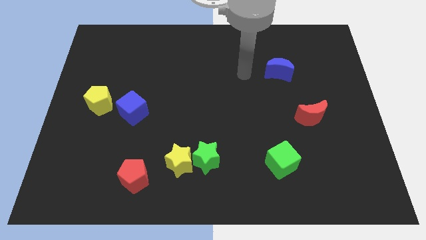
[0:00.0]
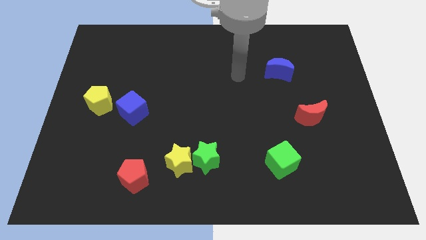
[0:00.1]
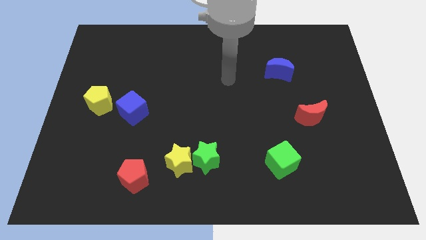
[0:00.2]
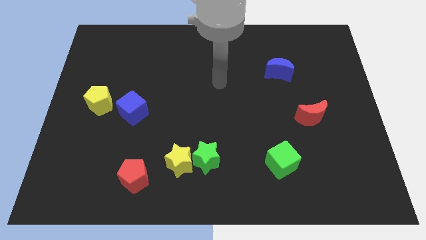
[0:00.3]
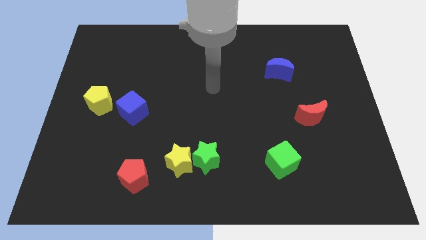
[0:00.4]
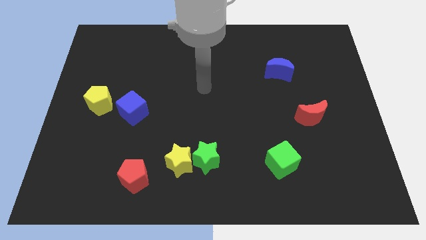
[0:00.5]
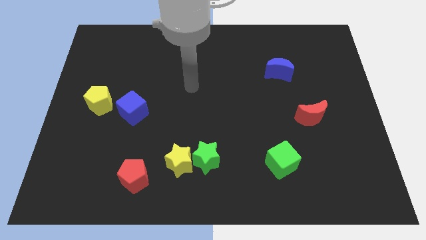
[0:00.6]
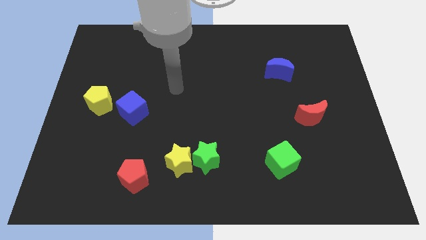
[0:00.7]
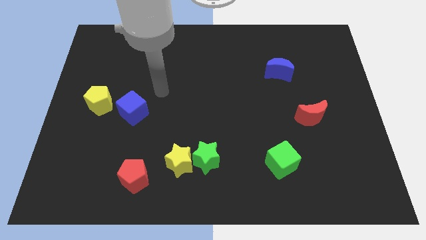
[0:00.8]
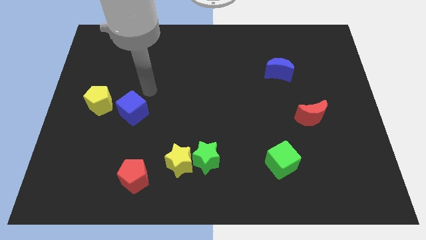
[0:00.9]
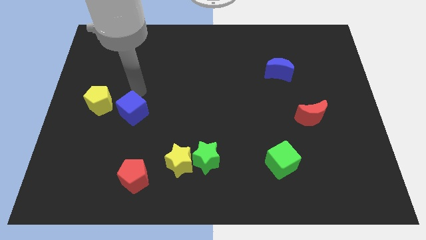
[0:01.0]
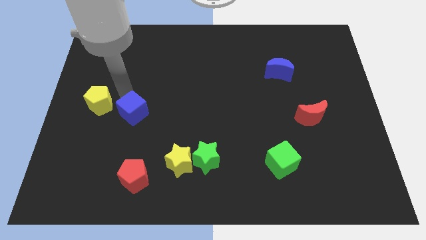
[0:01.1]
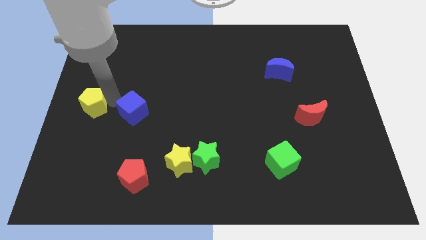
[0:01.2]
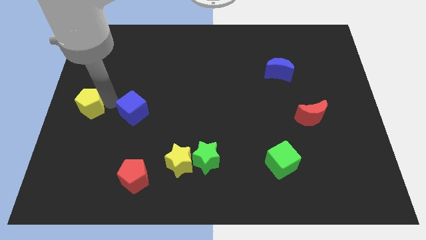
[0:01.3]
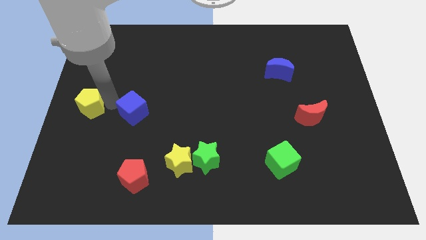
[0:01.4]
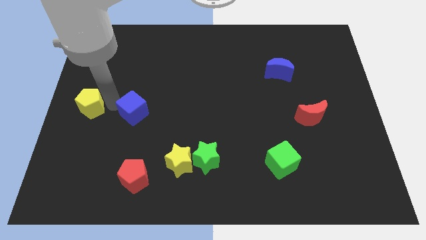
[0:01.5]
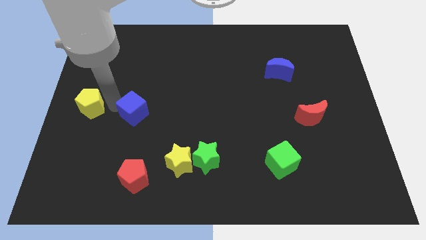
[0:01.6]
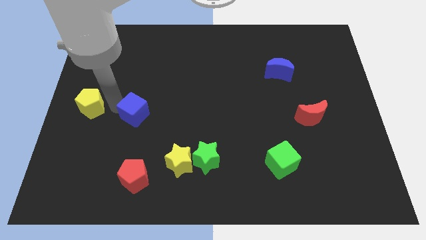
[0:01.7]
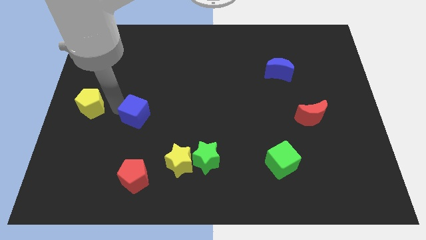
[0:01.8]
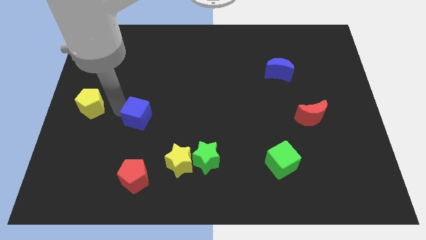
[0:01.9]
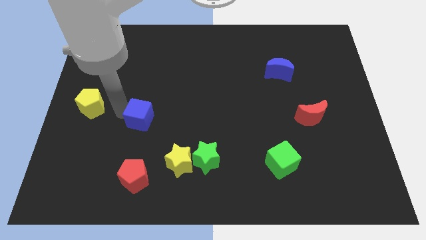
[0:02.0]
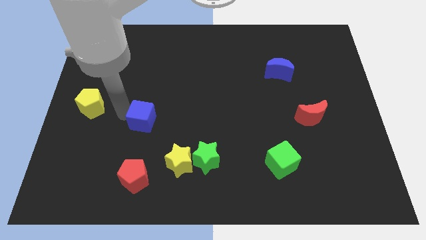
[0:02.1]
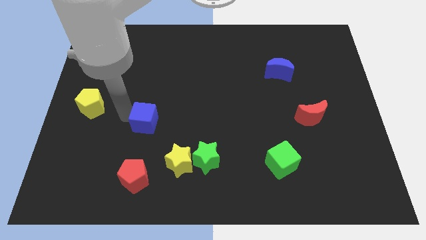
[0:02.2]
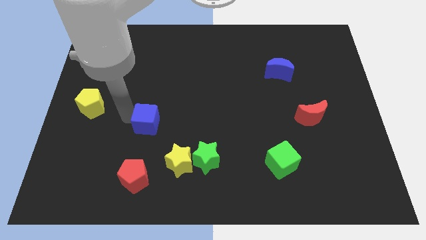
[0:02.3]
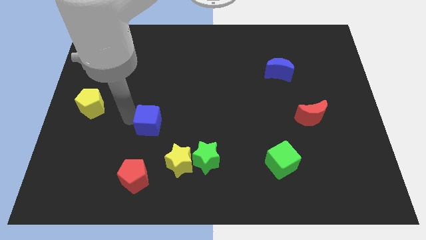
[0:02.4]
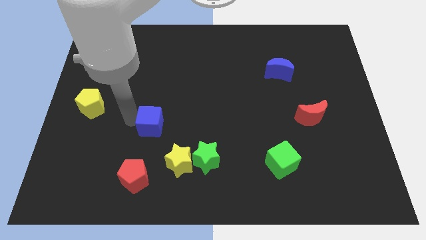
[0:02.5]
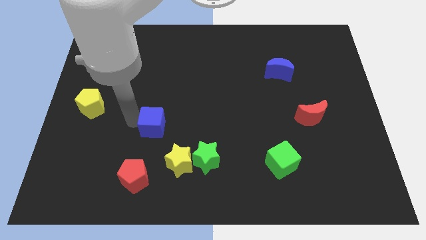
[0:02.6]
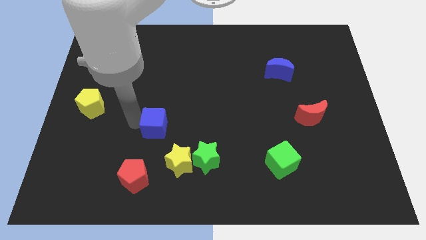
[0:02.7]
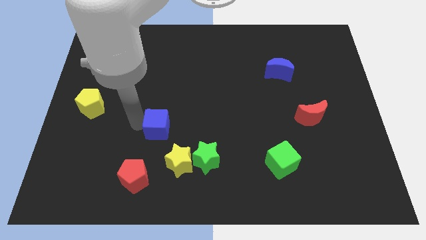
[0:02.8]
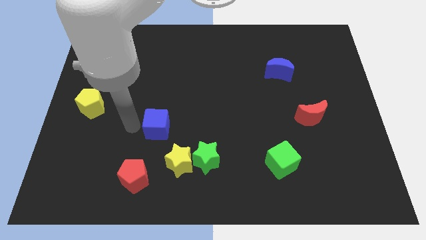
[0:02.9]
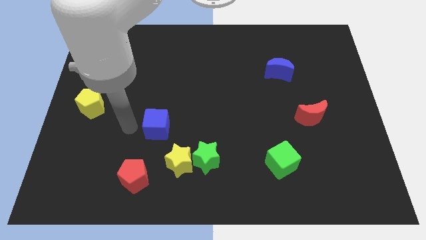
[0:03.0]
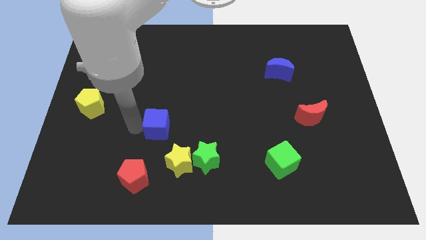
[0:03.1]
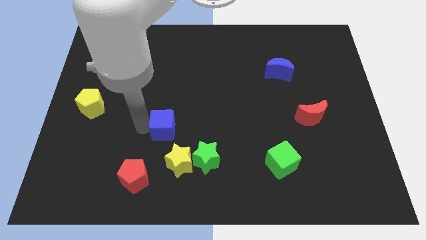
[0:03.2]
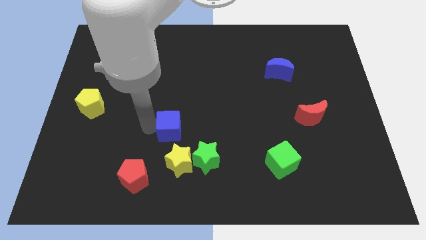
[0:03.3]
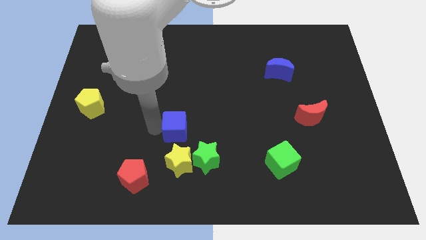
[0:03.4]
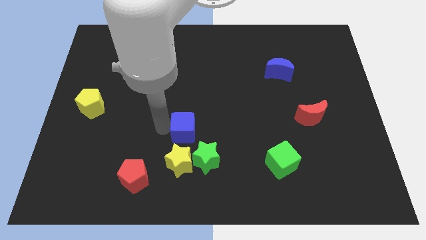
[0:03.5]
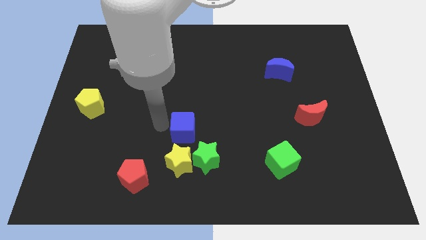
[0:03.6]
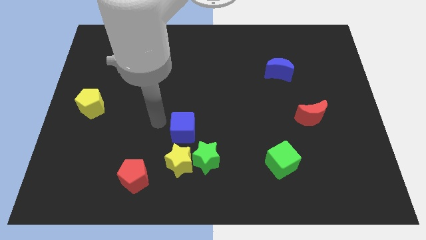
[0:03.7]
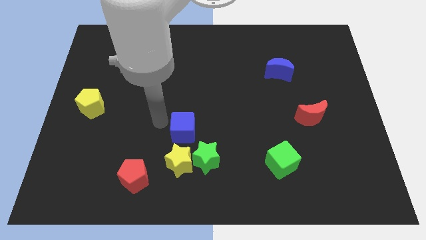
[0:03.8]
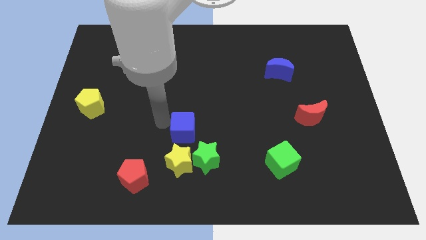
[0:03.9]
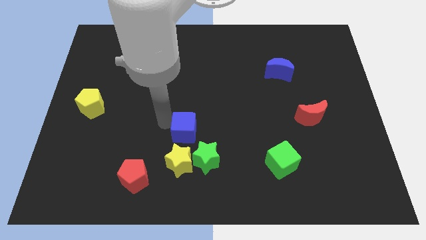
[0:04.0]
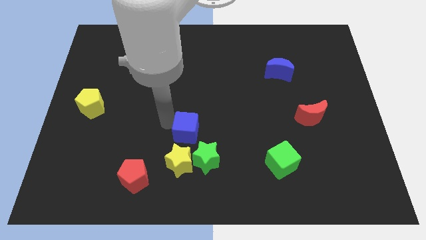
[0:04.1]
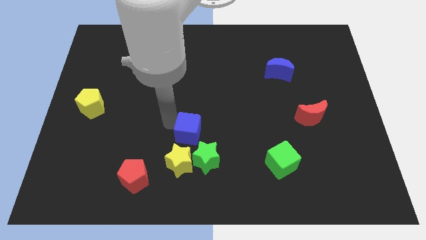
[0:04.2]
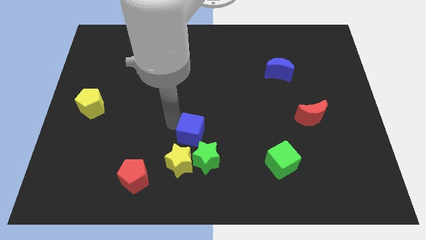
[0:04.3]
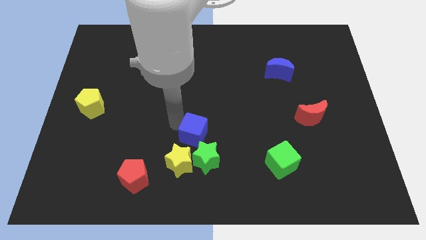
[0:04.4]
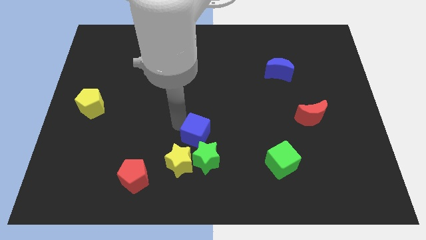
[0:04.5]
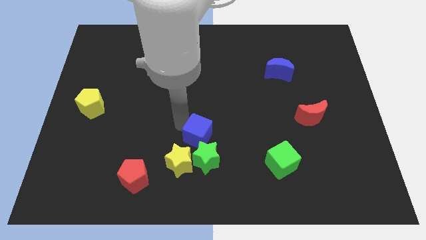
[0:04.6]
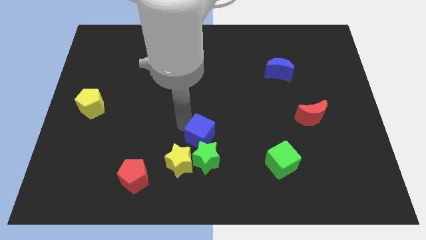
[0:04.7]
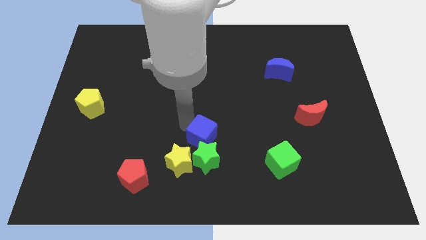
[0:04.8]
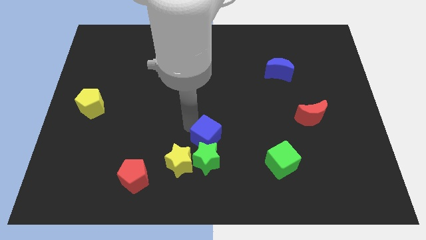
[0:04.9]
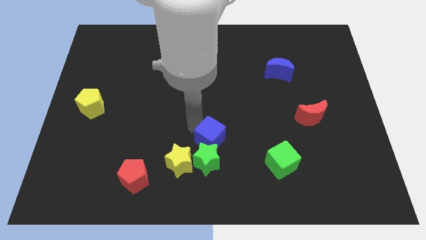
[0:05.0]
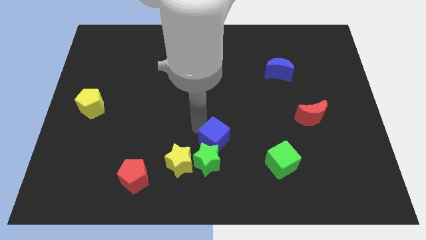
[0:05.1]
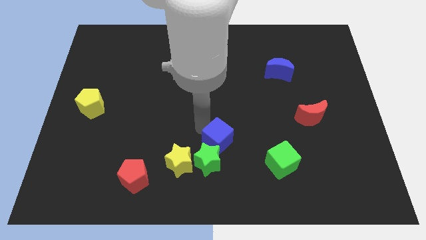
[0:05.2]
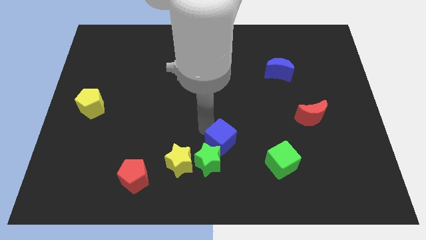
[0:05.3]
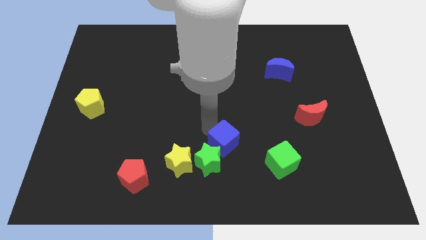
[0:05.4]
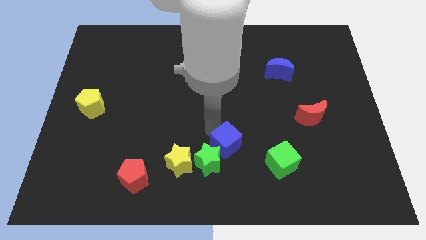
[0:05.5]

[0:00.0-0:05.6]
slide the blue cube to the left of the green cube

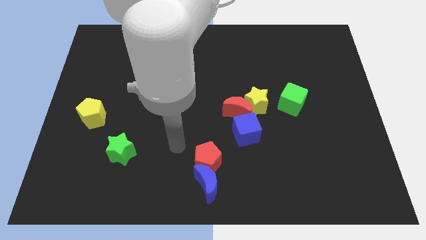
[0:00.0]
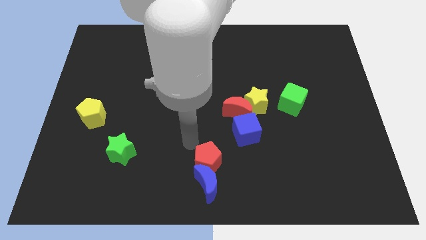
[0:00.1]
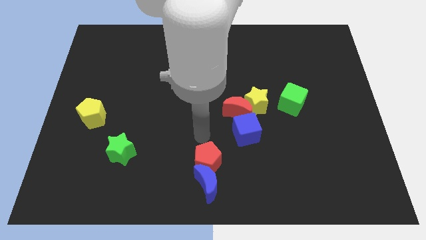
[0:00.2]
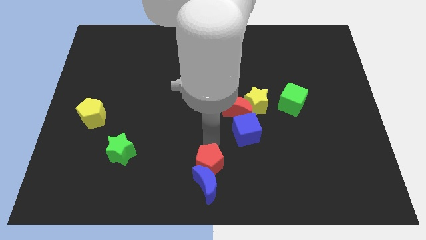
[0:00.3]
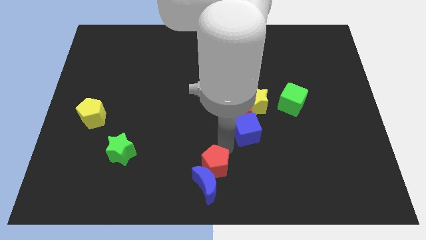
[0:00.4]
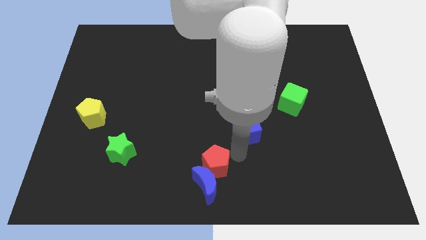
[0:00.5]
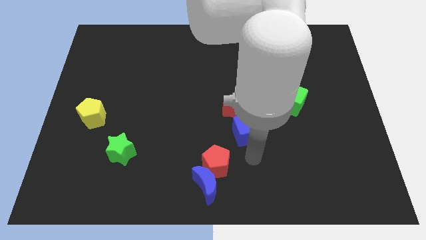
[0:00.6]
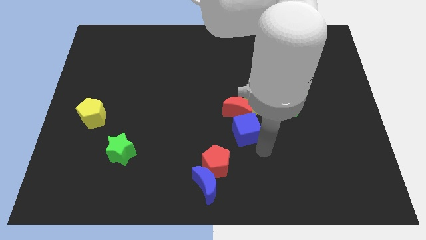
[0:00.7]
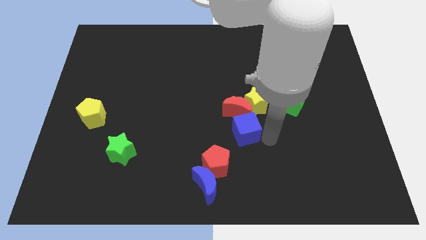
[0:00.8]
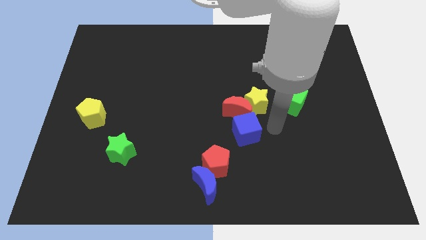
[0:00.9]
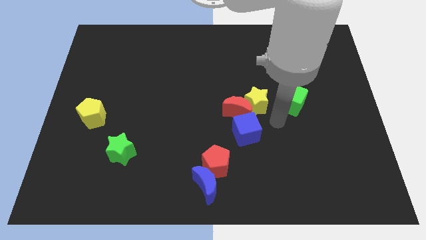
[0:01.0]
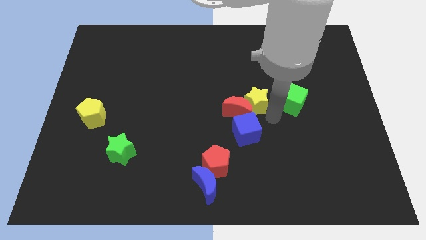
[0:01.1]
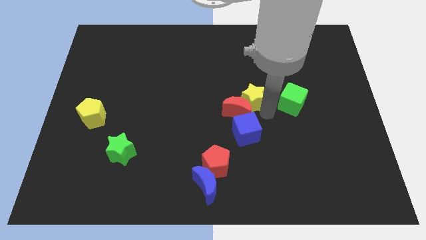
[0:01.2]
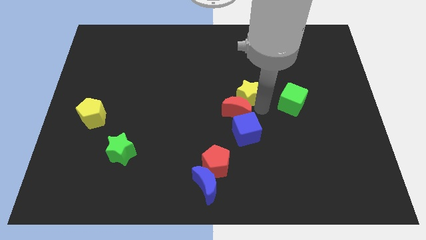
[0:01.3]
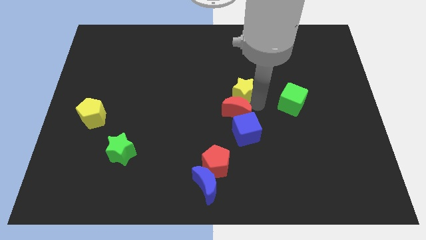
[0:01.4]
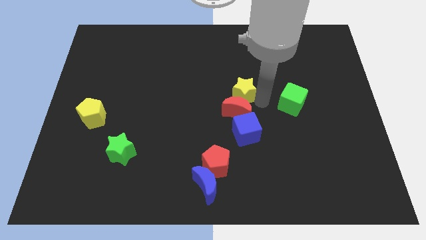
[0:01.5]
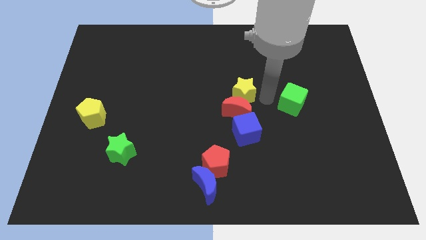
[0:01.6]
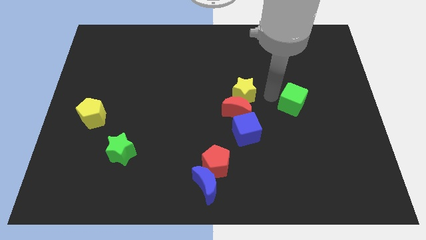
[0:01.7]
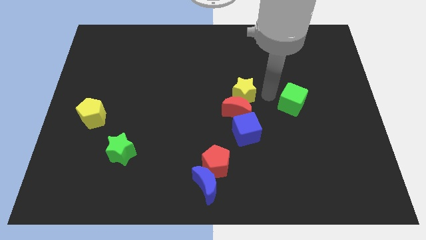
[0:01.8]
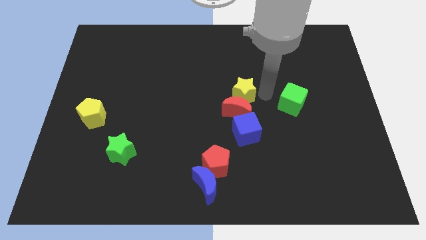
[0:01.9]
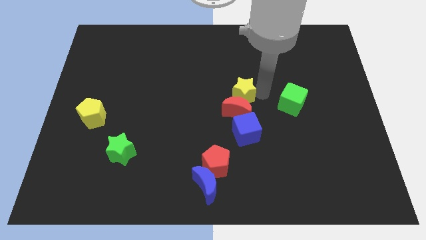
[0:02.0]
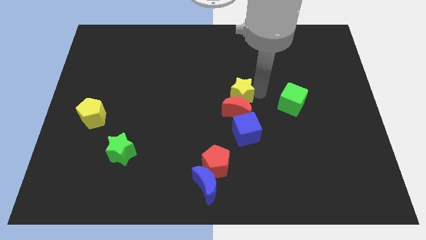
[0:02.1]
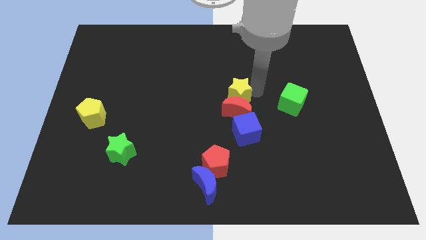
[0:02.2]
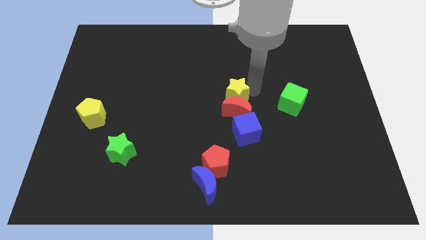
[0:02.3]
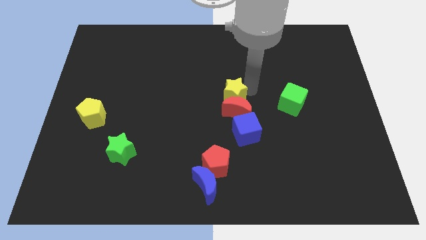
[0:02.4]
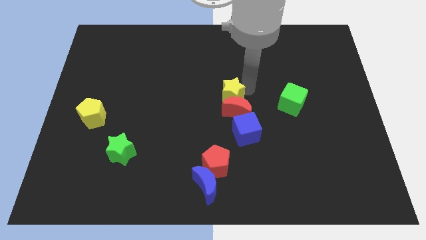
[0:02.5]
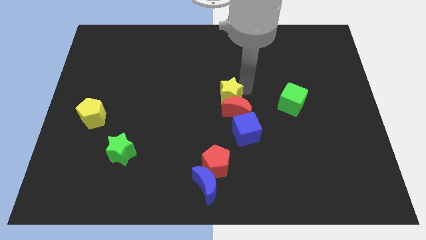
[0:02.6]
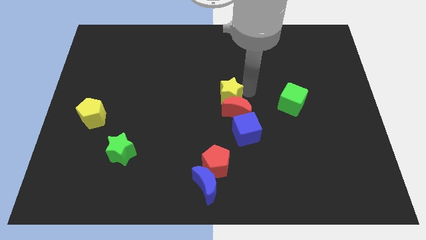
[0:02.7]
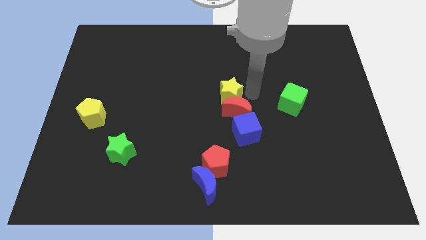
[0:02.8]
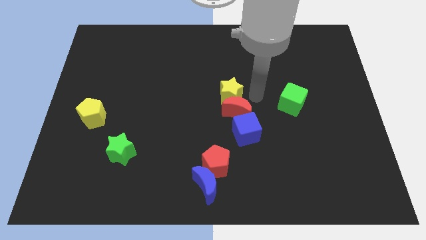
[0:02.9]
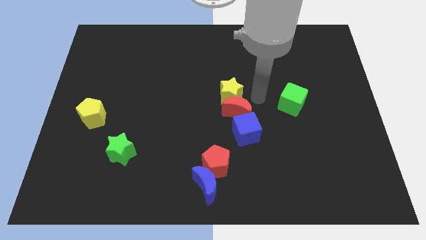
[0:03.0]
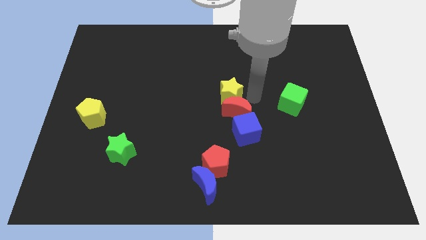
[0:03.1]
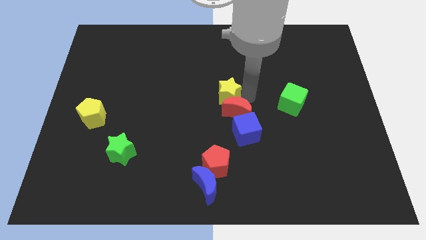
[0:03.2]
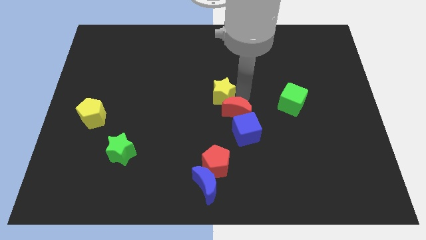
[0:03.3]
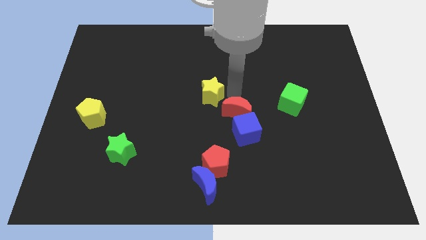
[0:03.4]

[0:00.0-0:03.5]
move the yellow star to the left of the red moon
